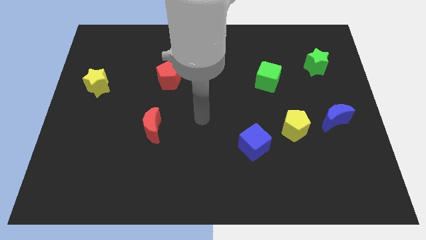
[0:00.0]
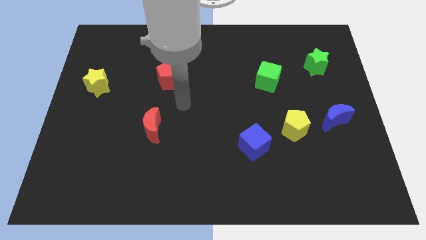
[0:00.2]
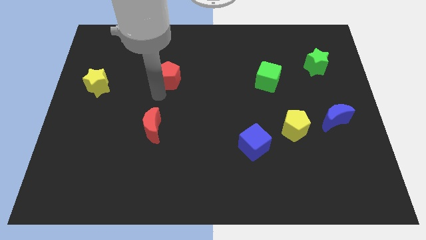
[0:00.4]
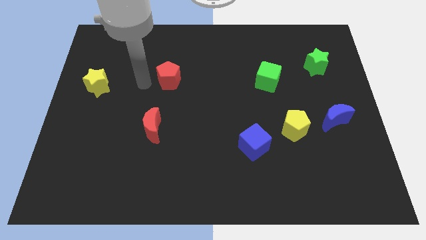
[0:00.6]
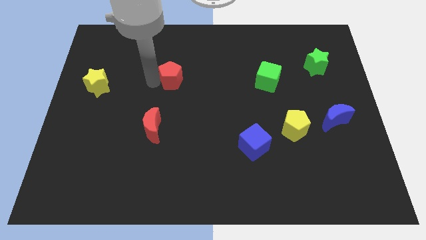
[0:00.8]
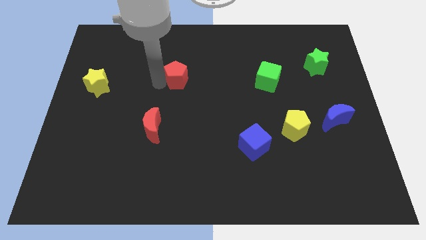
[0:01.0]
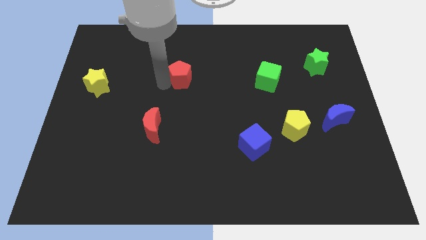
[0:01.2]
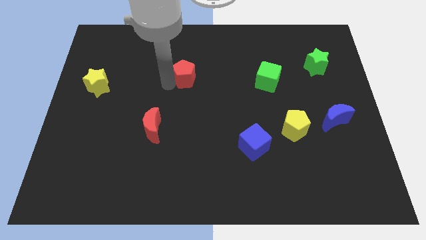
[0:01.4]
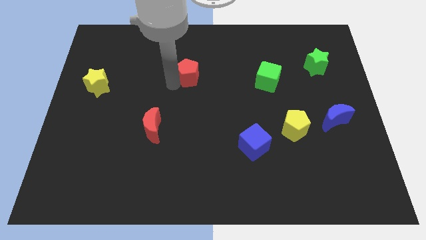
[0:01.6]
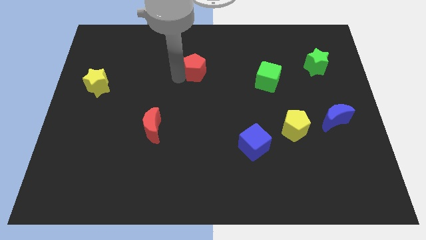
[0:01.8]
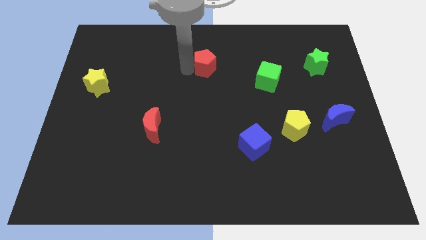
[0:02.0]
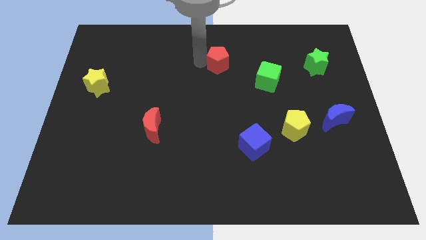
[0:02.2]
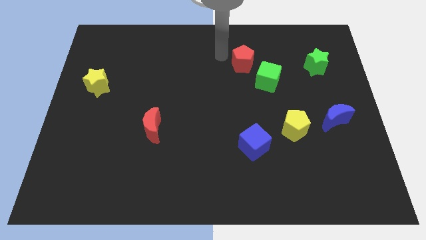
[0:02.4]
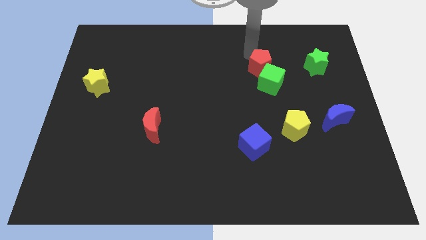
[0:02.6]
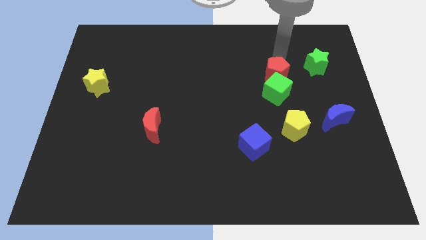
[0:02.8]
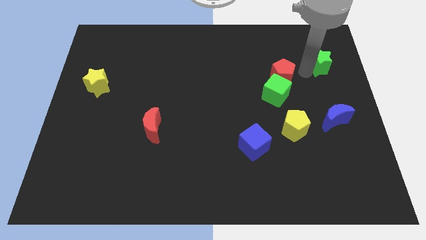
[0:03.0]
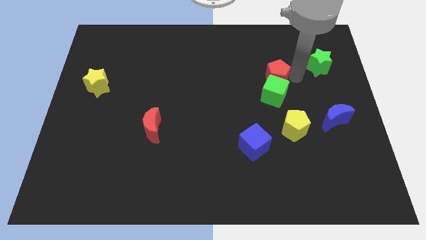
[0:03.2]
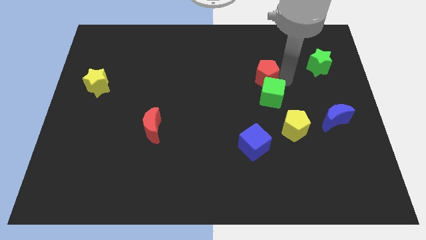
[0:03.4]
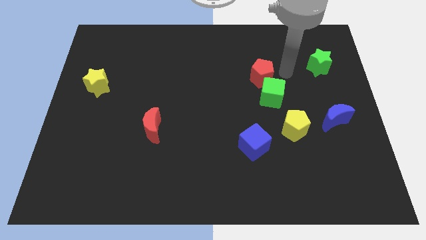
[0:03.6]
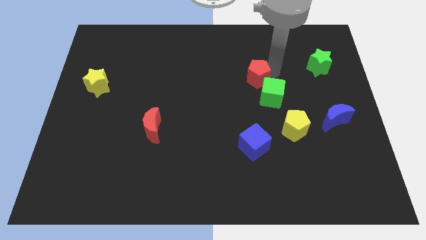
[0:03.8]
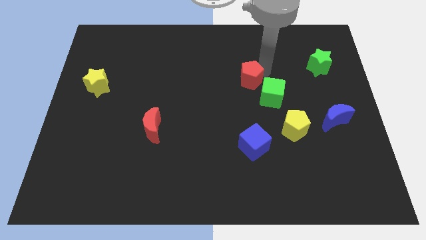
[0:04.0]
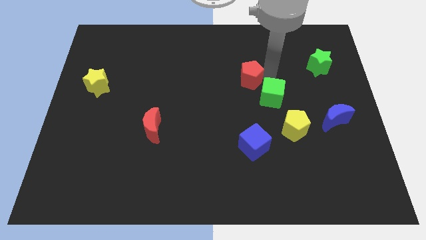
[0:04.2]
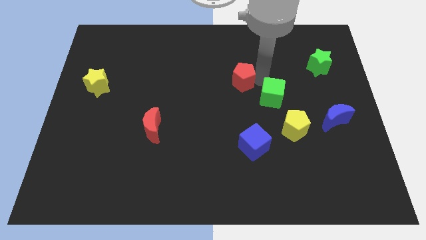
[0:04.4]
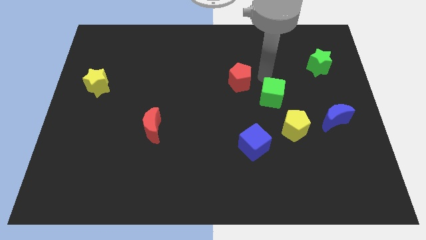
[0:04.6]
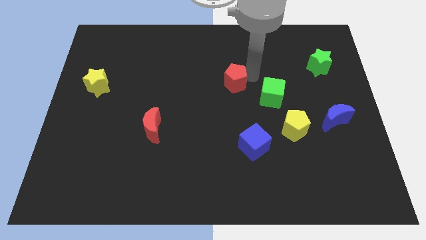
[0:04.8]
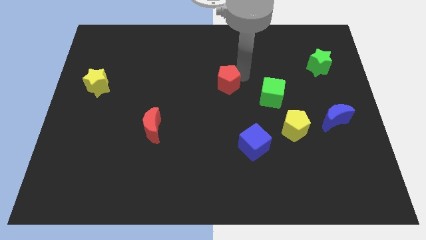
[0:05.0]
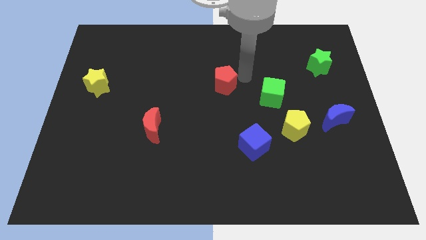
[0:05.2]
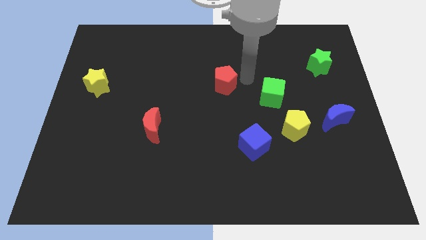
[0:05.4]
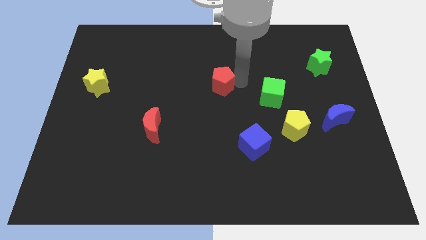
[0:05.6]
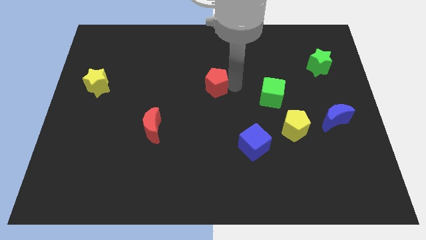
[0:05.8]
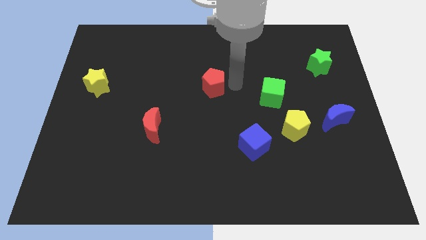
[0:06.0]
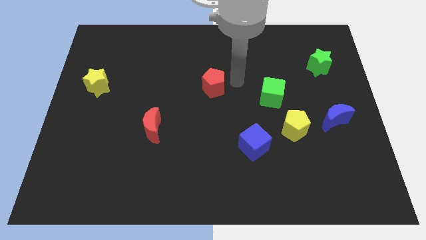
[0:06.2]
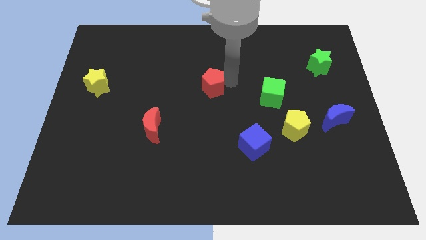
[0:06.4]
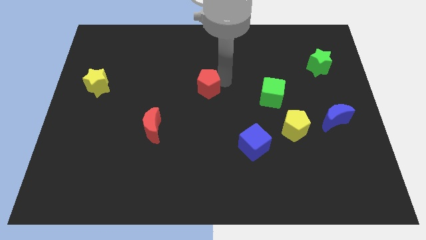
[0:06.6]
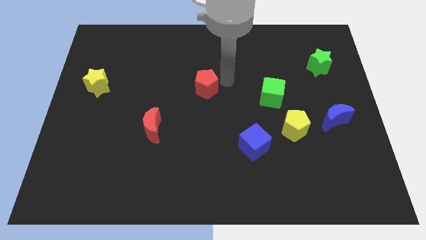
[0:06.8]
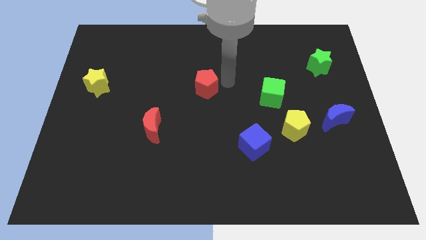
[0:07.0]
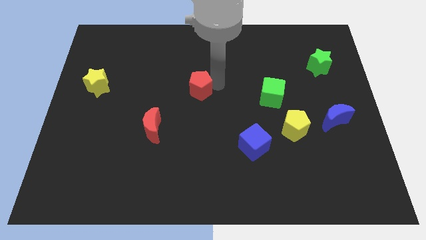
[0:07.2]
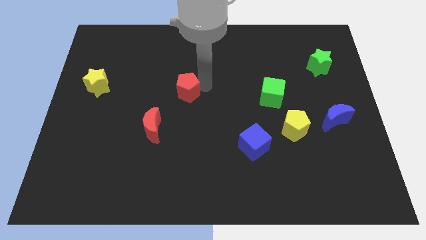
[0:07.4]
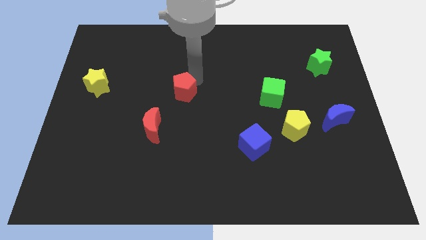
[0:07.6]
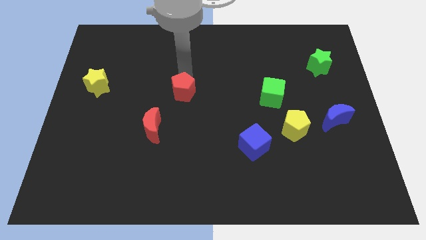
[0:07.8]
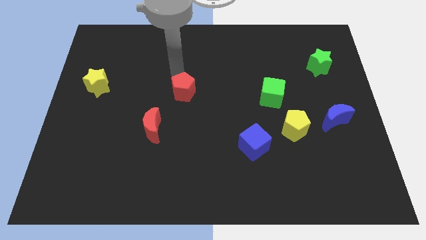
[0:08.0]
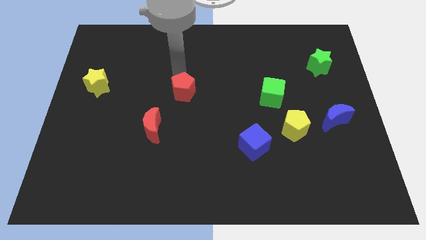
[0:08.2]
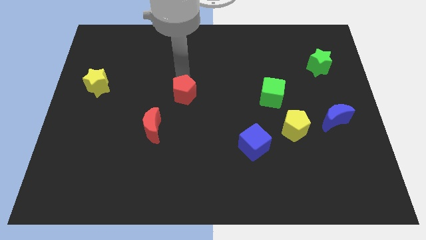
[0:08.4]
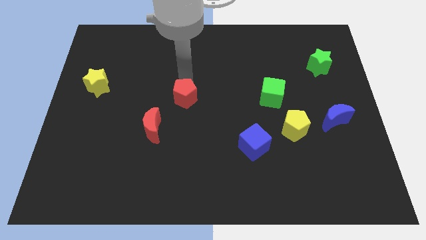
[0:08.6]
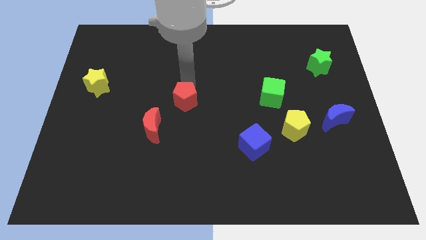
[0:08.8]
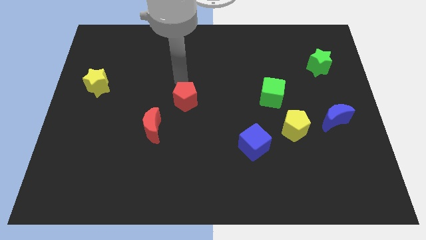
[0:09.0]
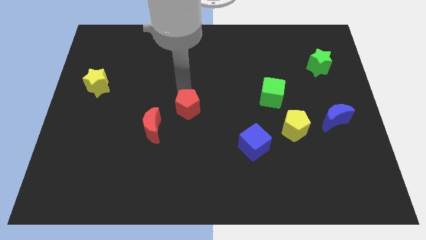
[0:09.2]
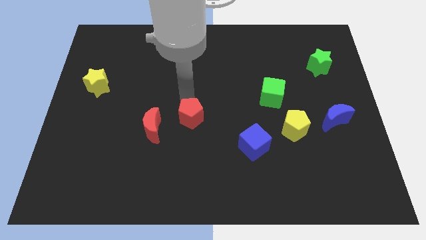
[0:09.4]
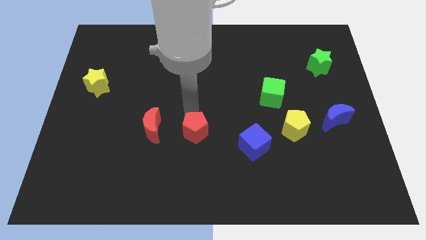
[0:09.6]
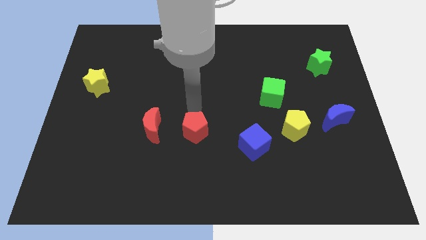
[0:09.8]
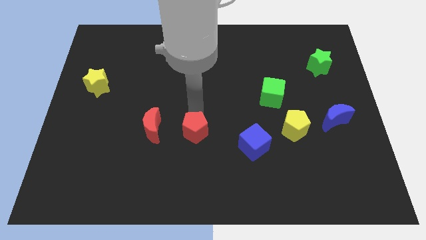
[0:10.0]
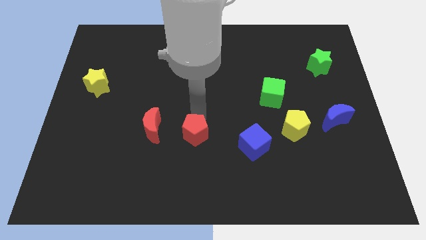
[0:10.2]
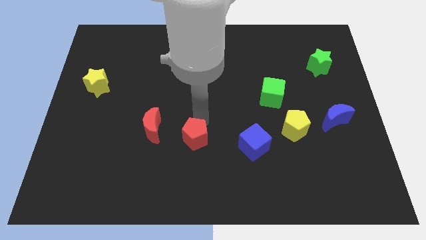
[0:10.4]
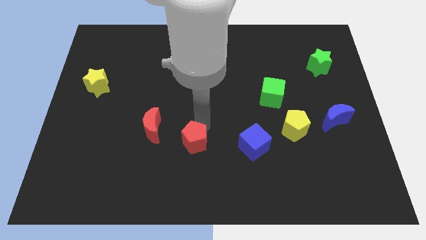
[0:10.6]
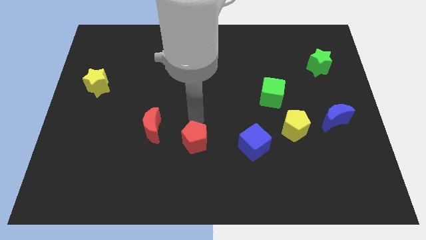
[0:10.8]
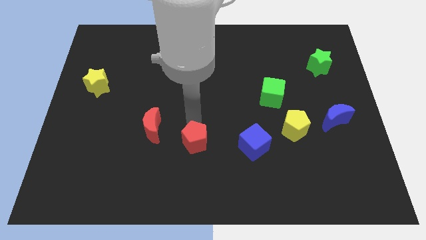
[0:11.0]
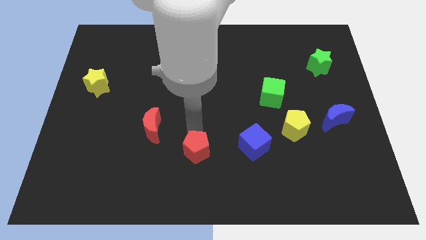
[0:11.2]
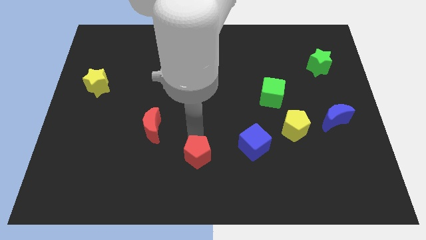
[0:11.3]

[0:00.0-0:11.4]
push the red pentagon to the bottom

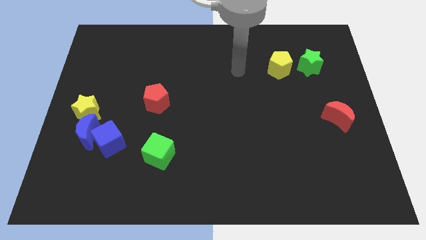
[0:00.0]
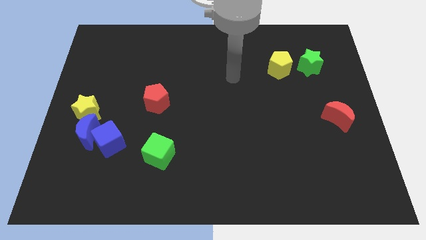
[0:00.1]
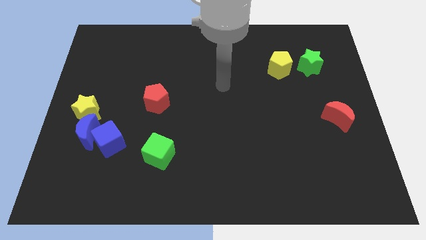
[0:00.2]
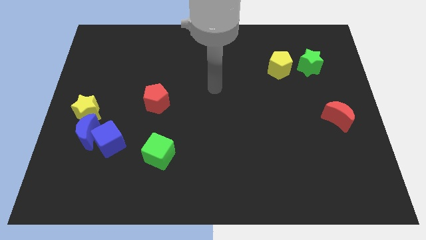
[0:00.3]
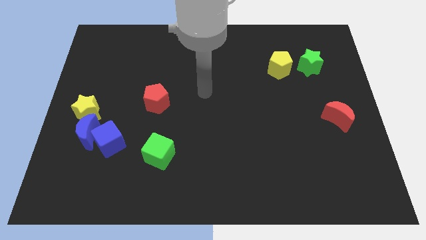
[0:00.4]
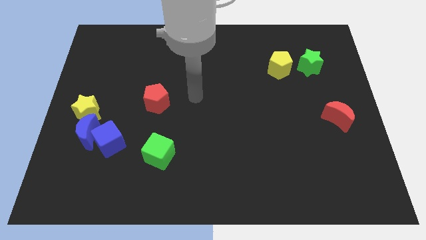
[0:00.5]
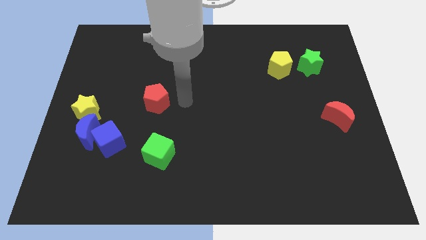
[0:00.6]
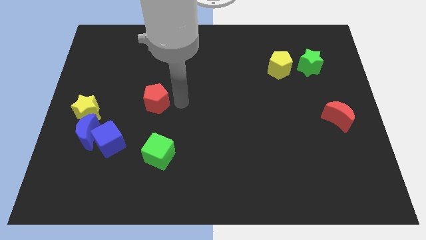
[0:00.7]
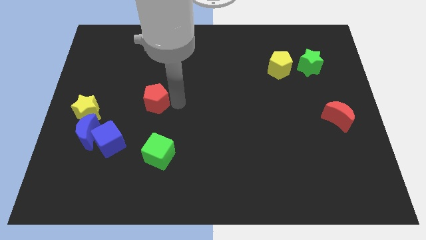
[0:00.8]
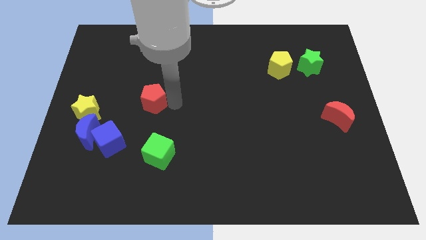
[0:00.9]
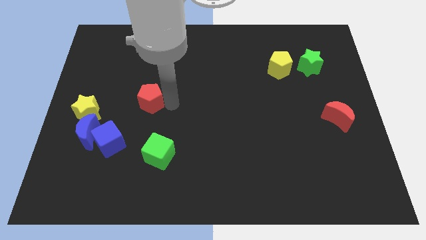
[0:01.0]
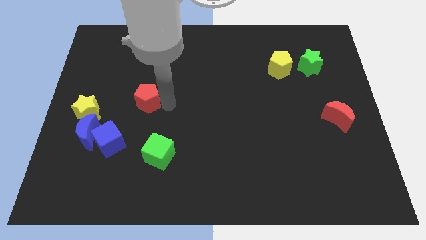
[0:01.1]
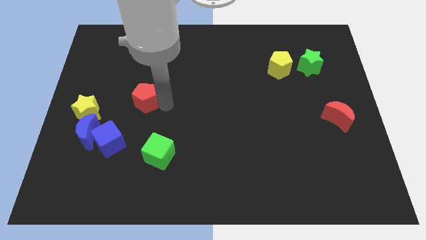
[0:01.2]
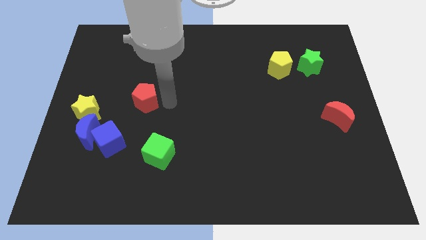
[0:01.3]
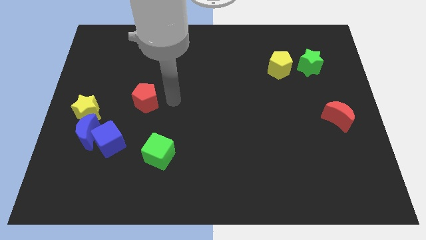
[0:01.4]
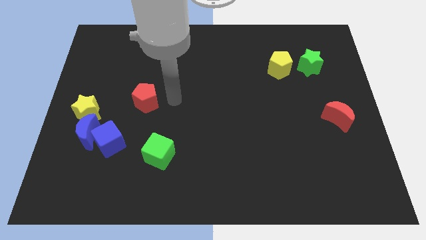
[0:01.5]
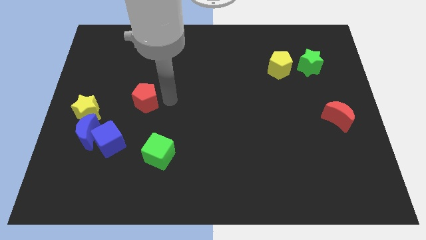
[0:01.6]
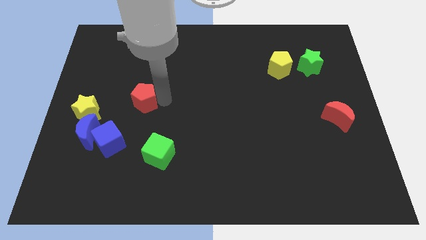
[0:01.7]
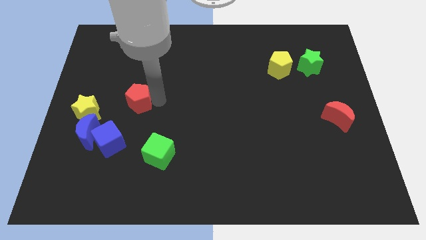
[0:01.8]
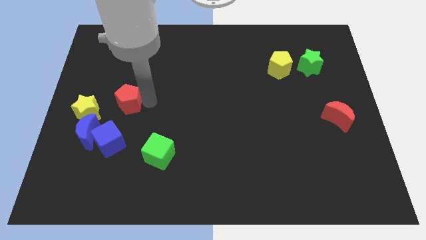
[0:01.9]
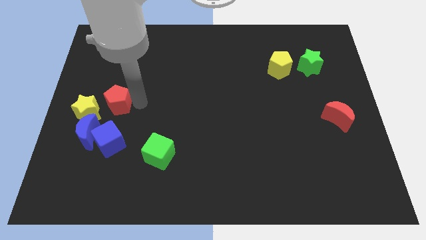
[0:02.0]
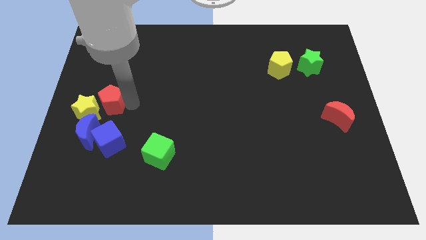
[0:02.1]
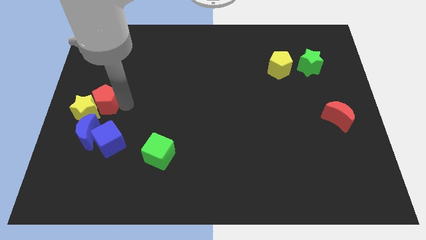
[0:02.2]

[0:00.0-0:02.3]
push the red pentagon to the left side
